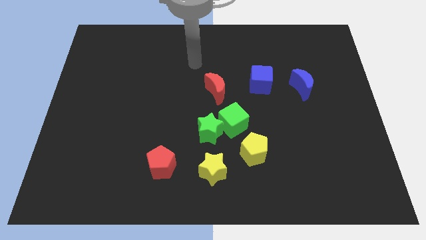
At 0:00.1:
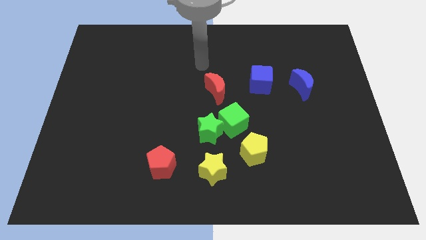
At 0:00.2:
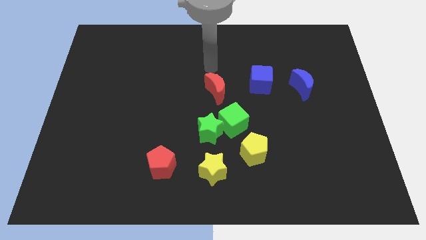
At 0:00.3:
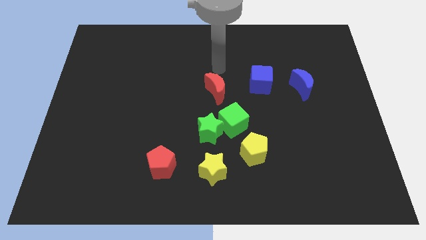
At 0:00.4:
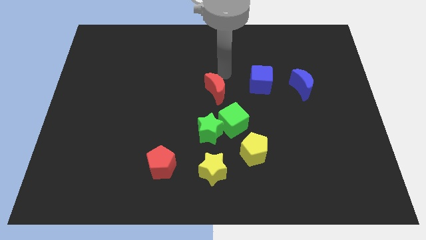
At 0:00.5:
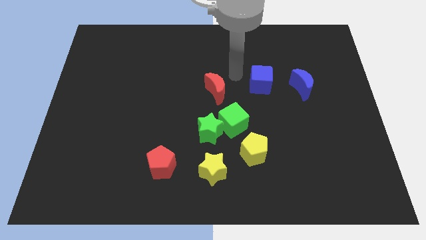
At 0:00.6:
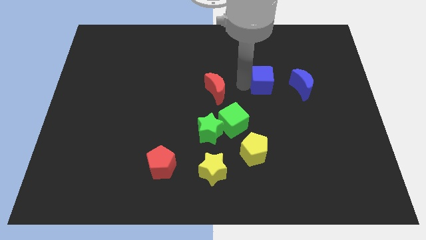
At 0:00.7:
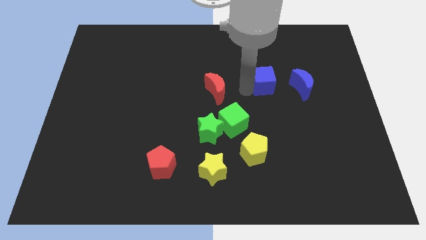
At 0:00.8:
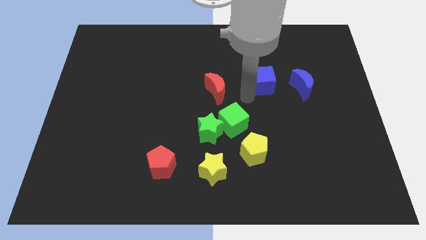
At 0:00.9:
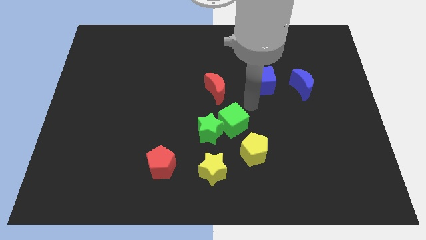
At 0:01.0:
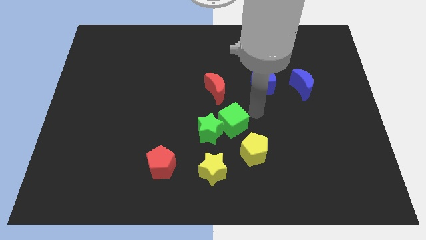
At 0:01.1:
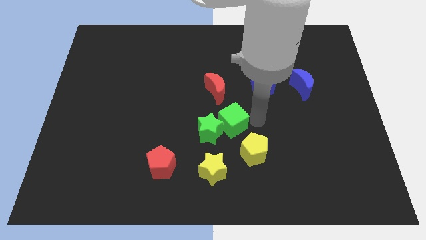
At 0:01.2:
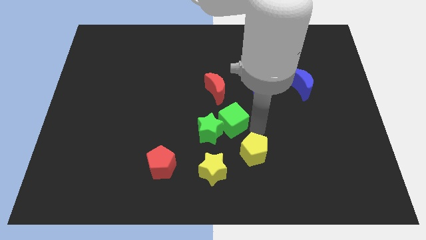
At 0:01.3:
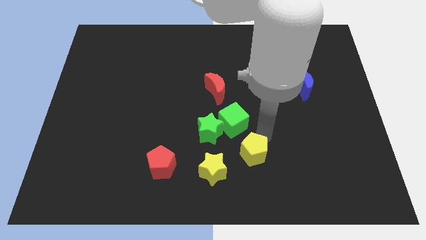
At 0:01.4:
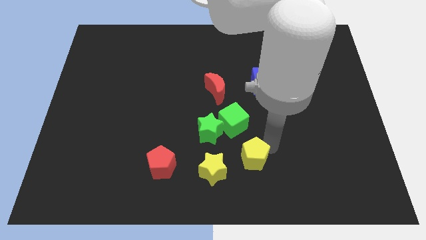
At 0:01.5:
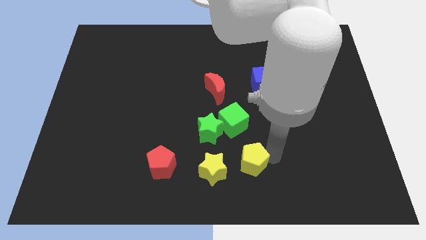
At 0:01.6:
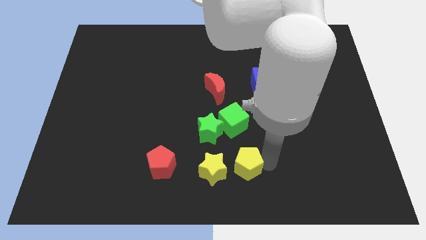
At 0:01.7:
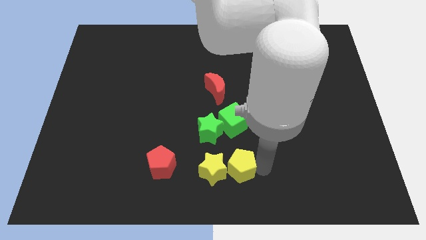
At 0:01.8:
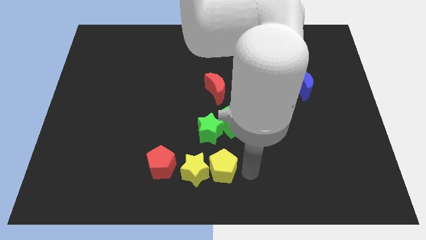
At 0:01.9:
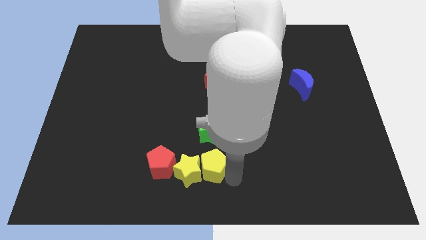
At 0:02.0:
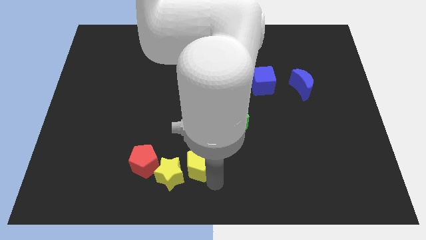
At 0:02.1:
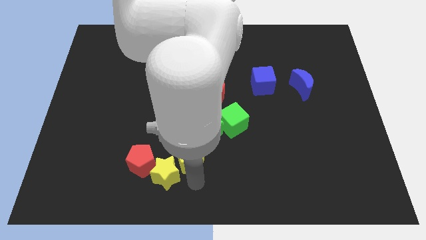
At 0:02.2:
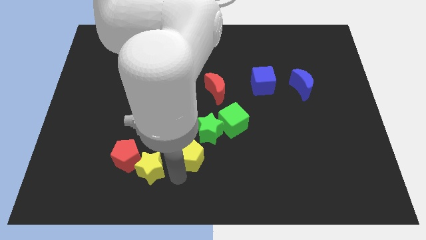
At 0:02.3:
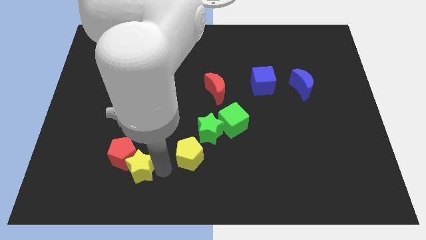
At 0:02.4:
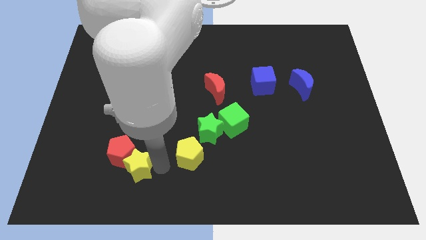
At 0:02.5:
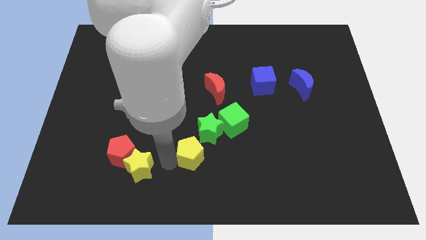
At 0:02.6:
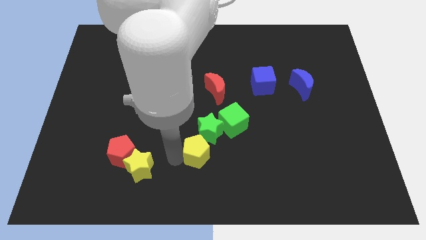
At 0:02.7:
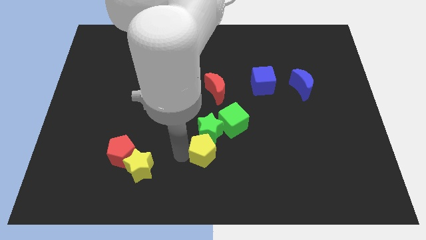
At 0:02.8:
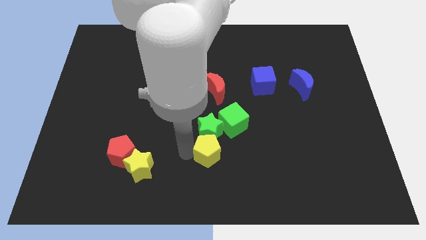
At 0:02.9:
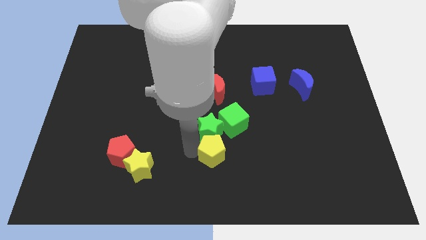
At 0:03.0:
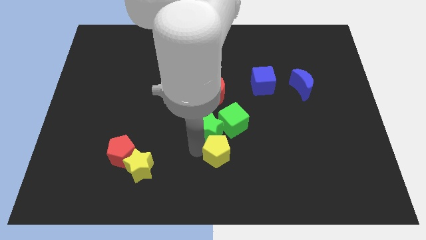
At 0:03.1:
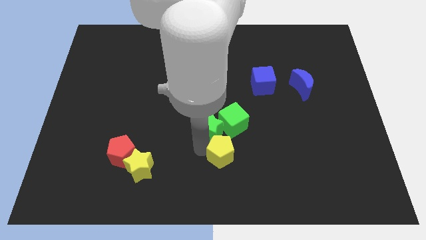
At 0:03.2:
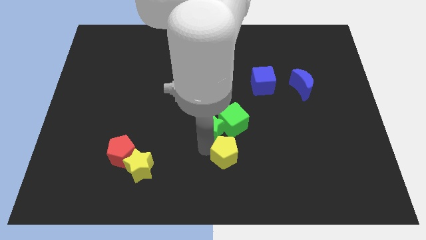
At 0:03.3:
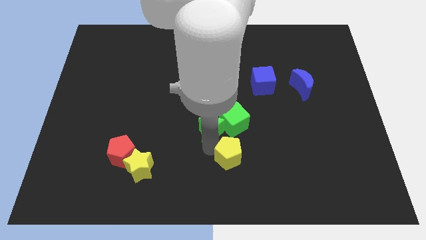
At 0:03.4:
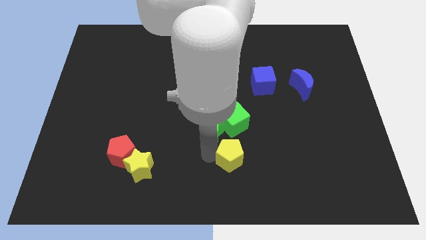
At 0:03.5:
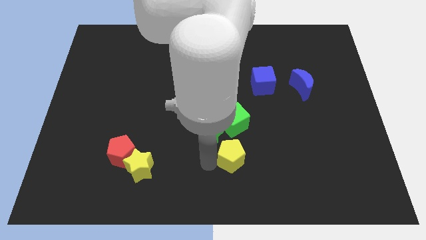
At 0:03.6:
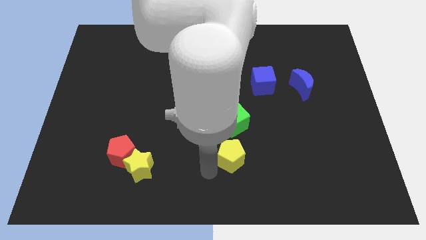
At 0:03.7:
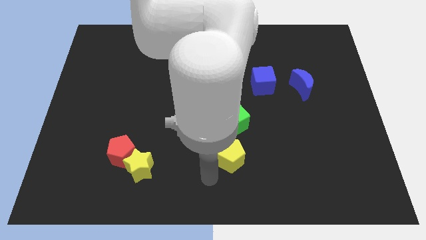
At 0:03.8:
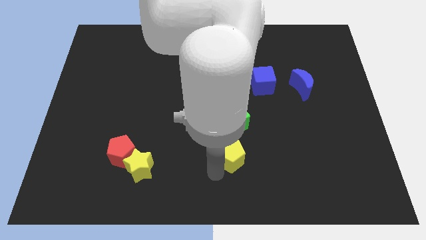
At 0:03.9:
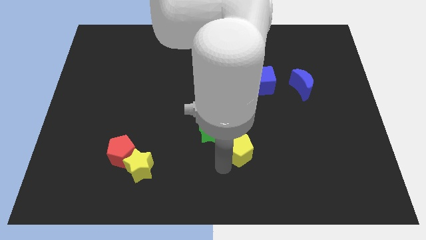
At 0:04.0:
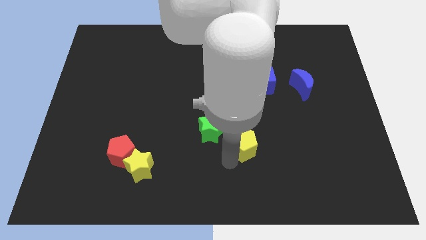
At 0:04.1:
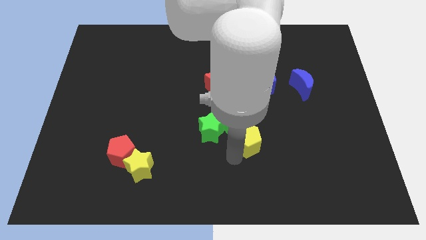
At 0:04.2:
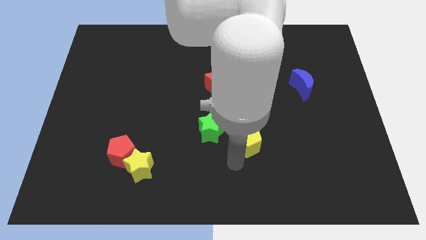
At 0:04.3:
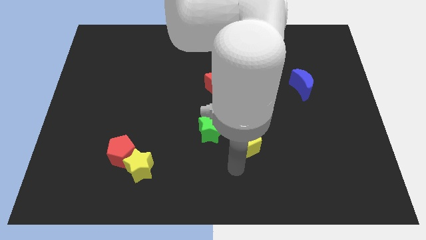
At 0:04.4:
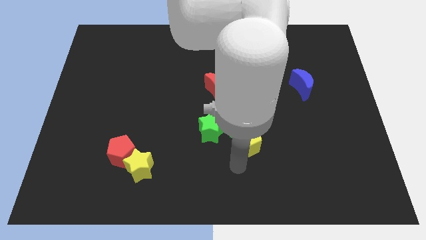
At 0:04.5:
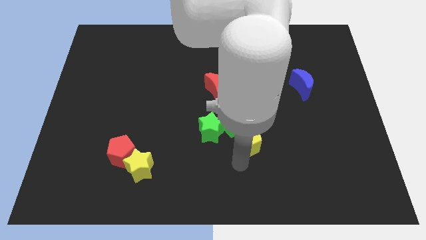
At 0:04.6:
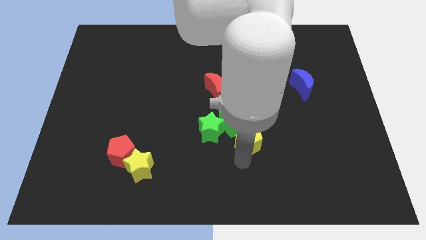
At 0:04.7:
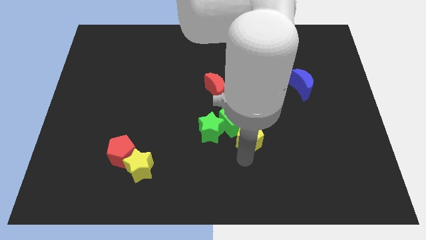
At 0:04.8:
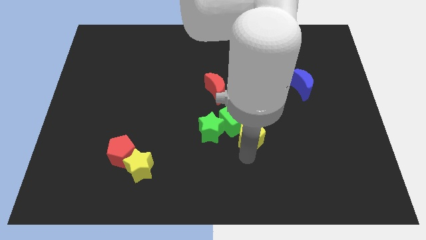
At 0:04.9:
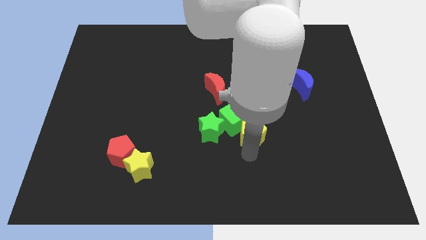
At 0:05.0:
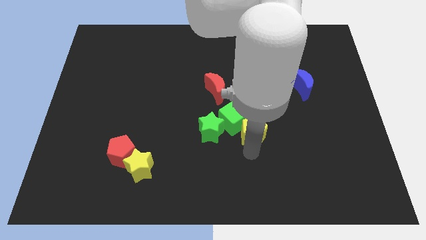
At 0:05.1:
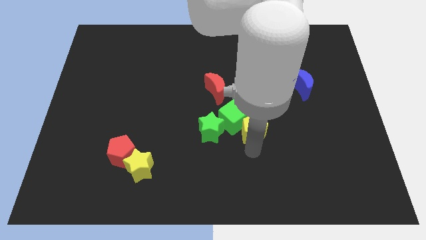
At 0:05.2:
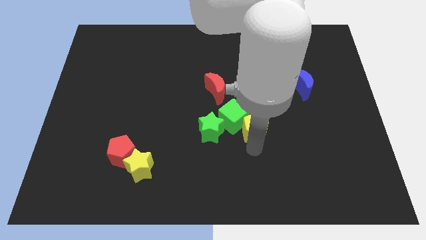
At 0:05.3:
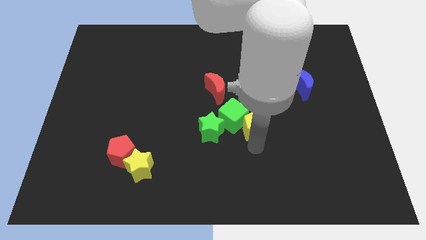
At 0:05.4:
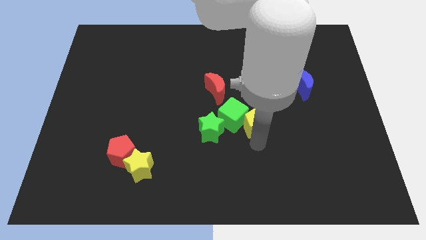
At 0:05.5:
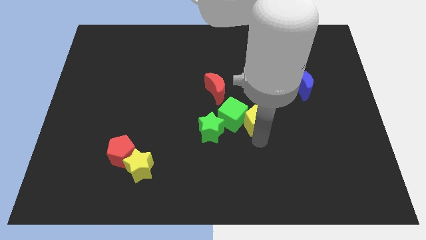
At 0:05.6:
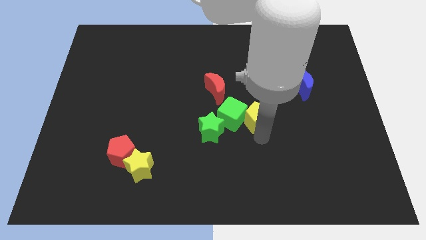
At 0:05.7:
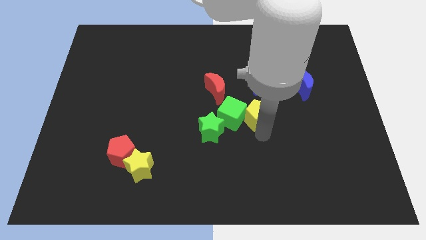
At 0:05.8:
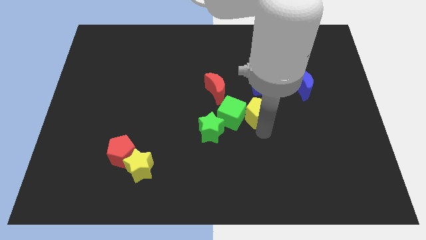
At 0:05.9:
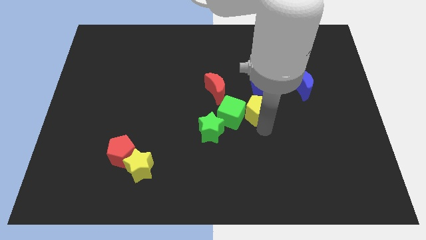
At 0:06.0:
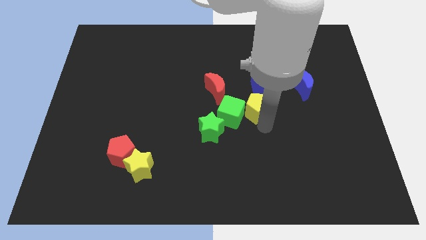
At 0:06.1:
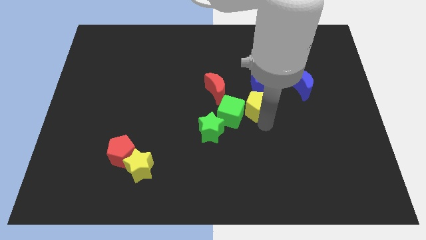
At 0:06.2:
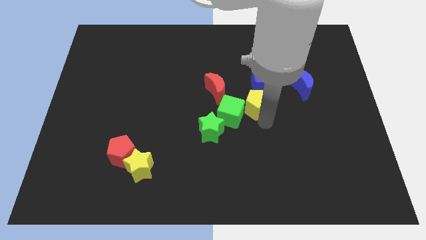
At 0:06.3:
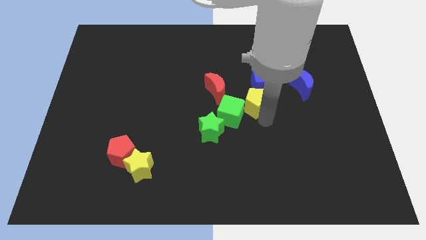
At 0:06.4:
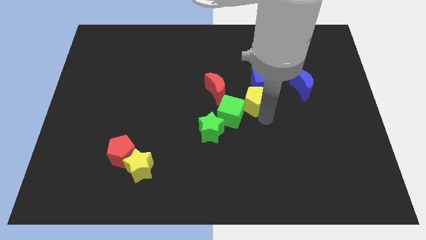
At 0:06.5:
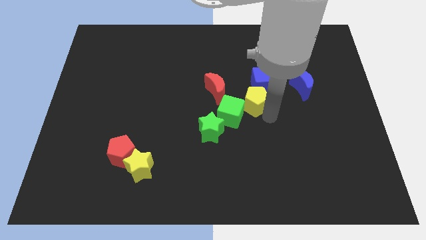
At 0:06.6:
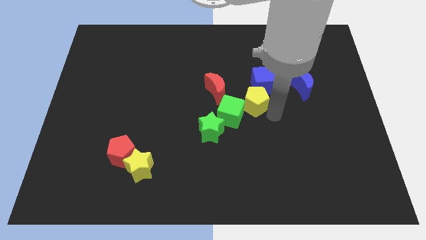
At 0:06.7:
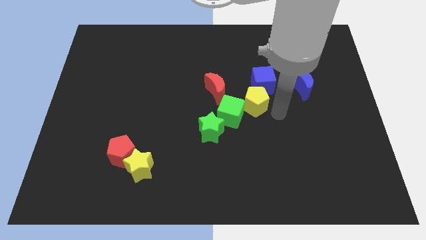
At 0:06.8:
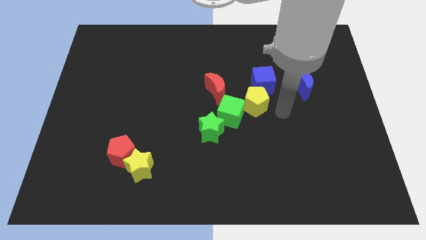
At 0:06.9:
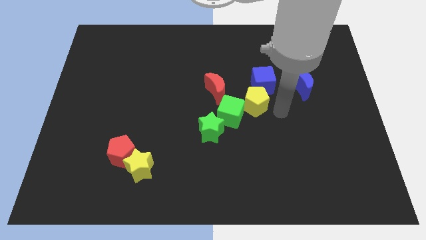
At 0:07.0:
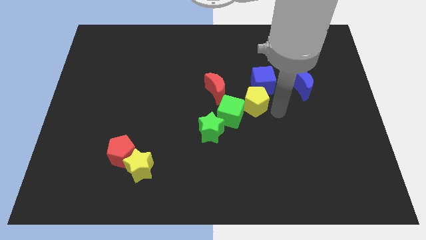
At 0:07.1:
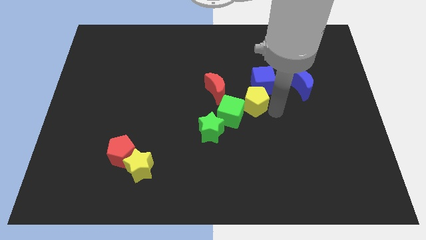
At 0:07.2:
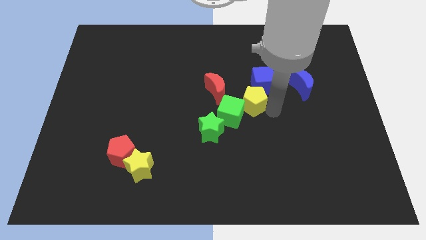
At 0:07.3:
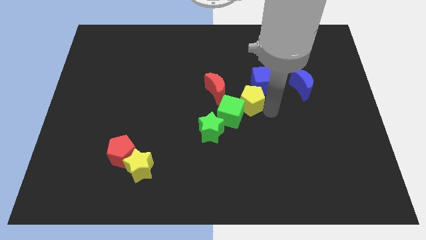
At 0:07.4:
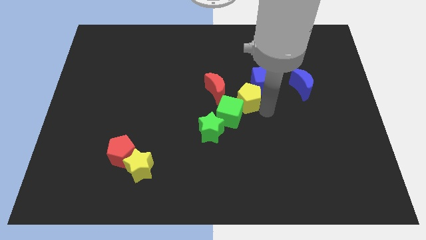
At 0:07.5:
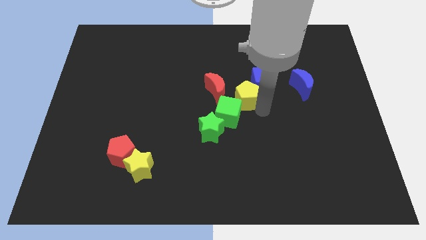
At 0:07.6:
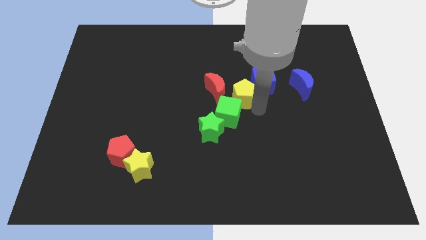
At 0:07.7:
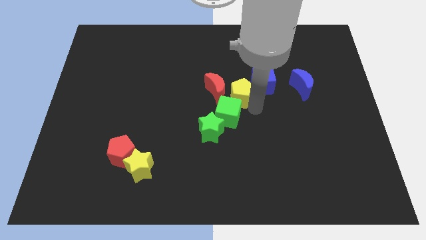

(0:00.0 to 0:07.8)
put the yellow pentagon next to the red moon
